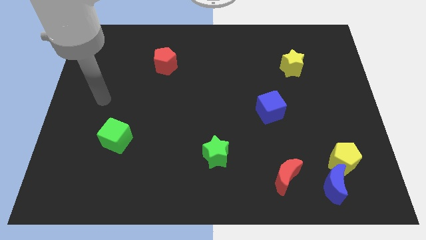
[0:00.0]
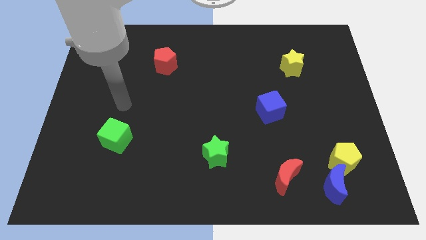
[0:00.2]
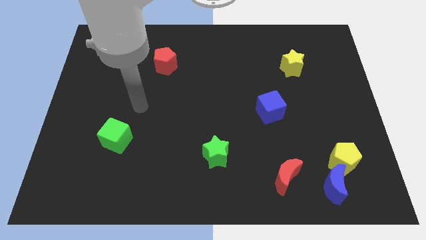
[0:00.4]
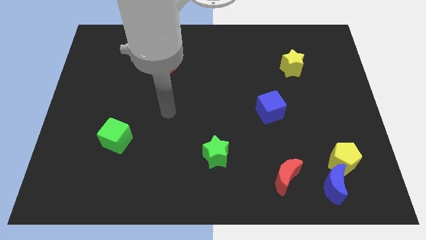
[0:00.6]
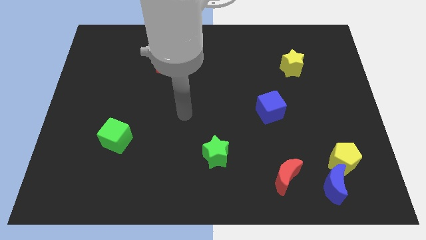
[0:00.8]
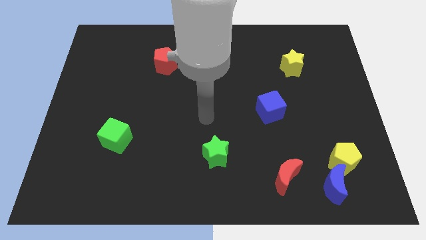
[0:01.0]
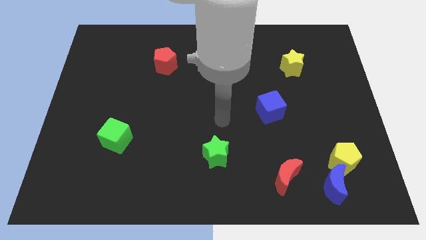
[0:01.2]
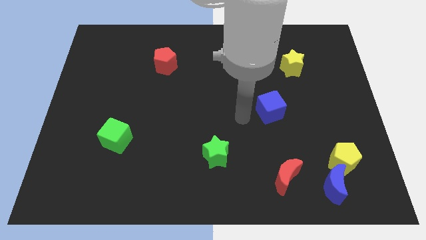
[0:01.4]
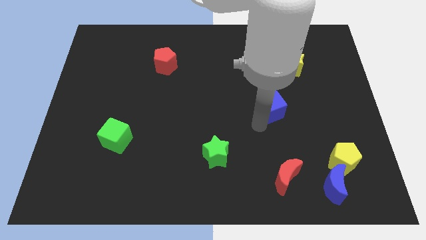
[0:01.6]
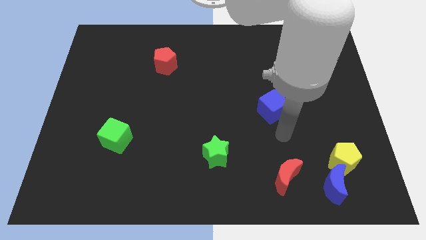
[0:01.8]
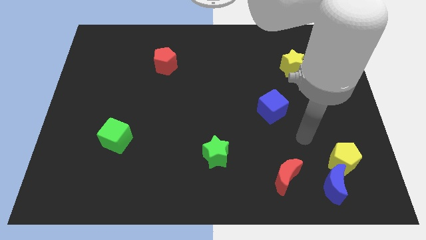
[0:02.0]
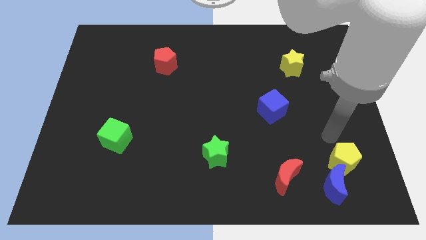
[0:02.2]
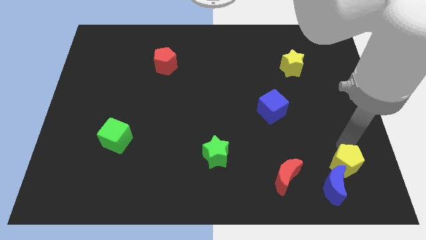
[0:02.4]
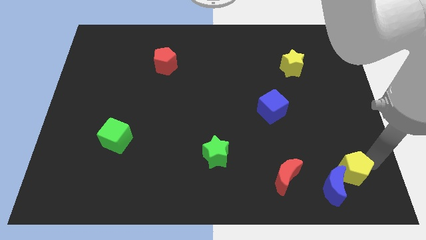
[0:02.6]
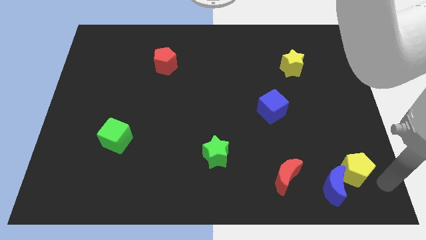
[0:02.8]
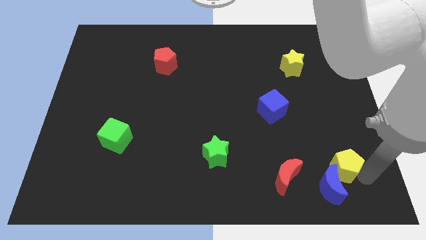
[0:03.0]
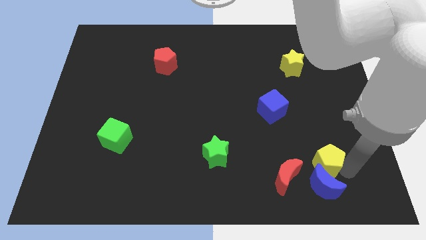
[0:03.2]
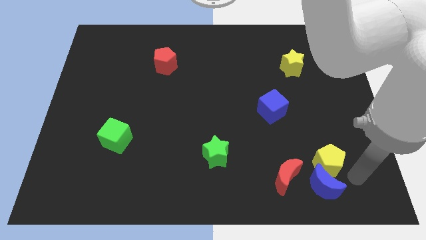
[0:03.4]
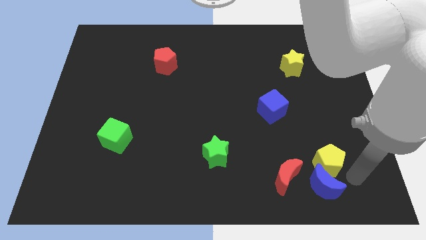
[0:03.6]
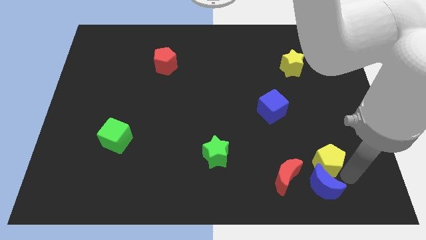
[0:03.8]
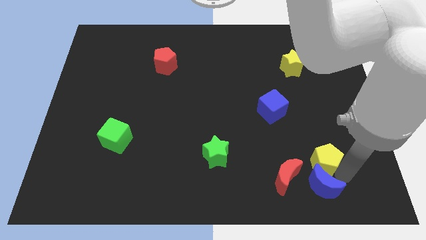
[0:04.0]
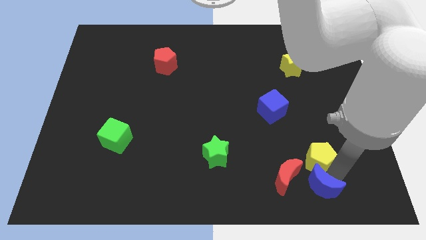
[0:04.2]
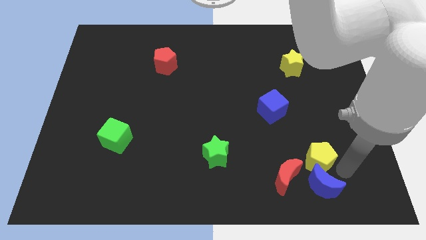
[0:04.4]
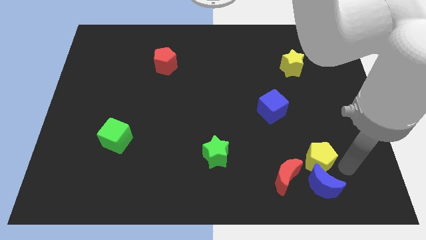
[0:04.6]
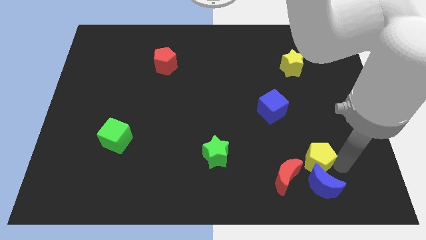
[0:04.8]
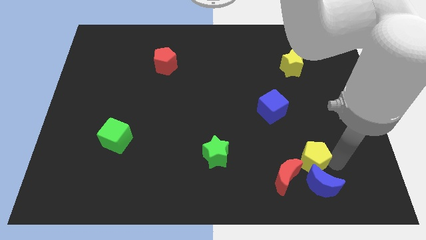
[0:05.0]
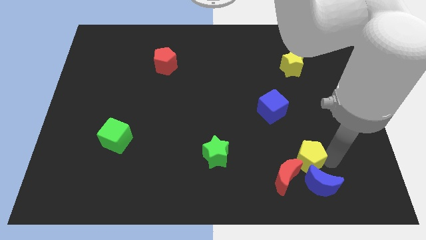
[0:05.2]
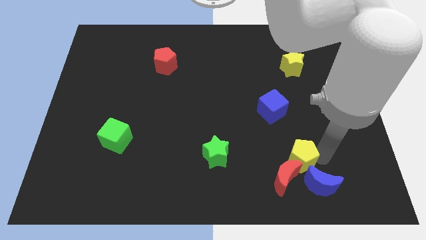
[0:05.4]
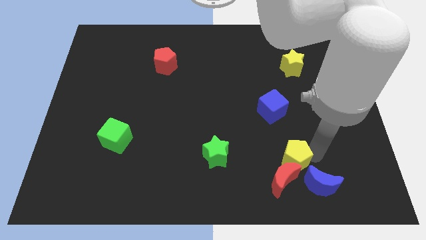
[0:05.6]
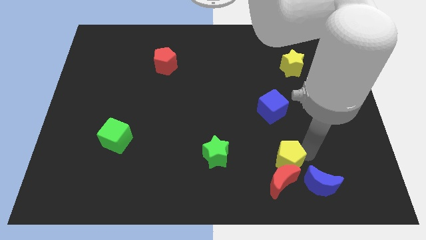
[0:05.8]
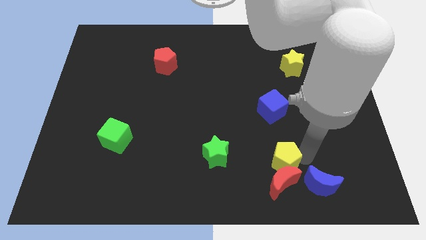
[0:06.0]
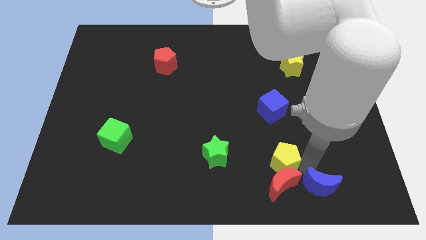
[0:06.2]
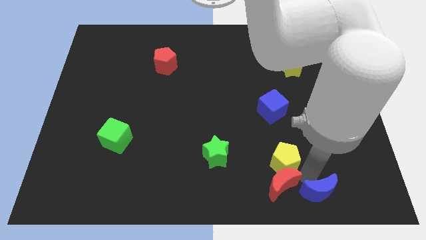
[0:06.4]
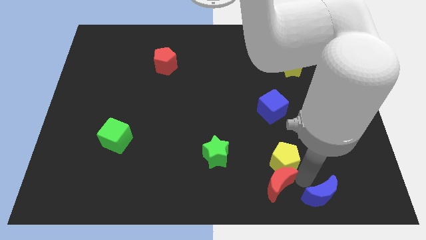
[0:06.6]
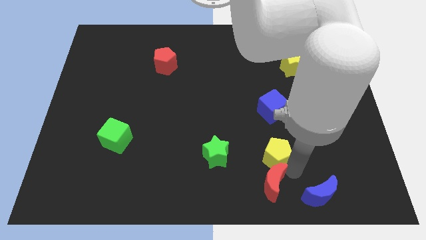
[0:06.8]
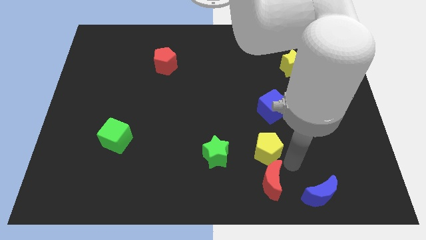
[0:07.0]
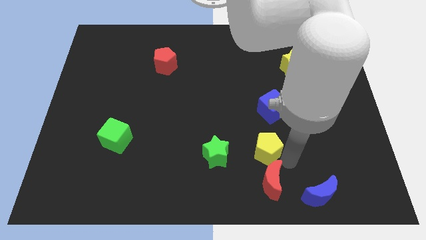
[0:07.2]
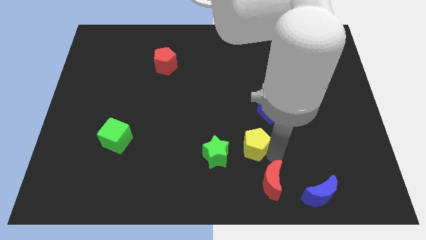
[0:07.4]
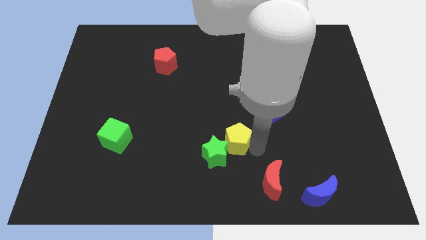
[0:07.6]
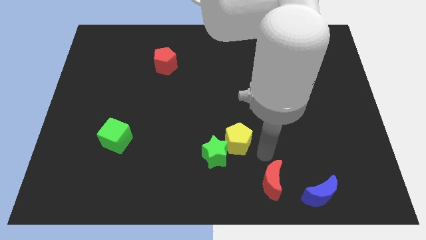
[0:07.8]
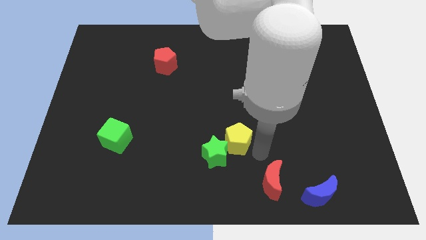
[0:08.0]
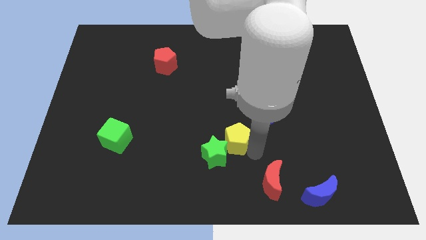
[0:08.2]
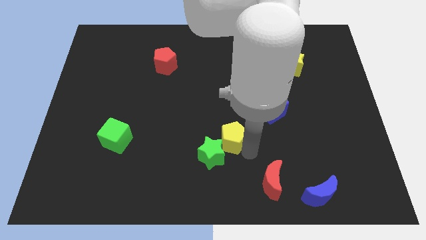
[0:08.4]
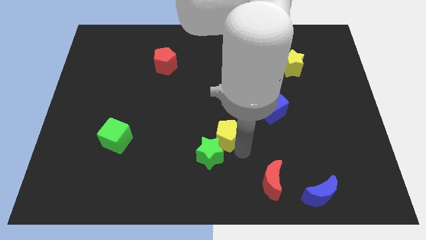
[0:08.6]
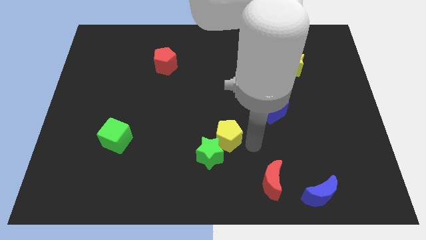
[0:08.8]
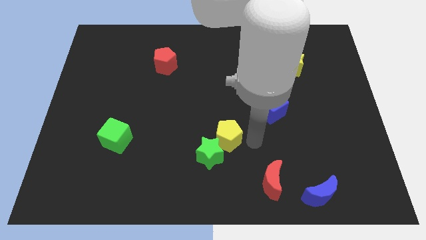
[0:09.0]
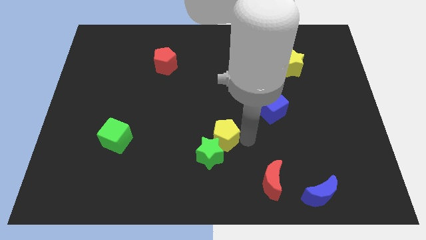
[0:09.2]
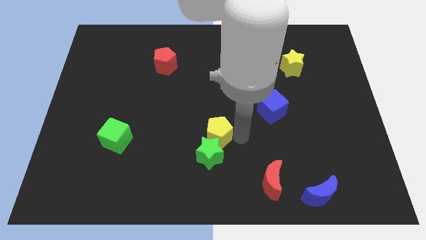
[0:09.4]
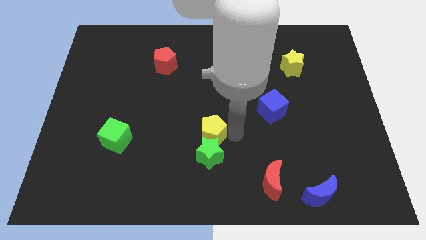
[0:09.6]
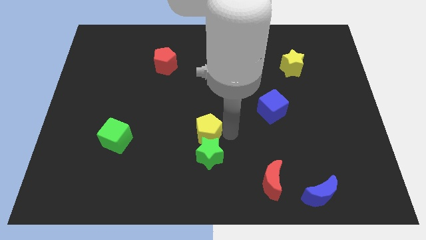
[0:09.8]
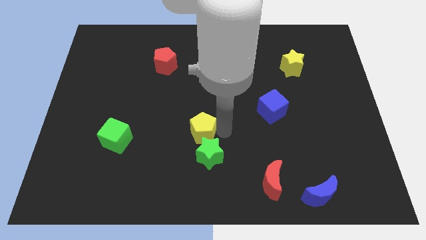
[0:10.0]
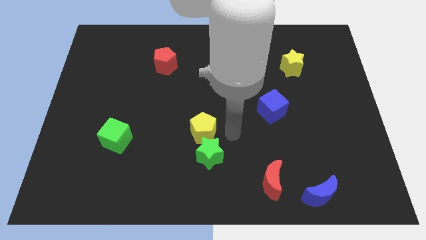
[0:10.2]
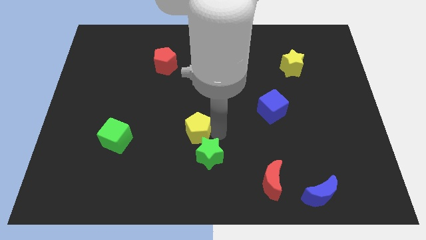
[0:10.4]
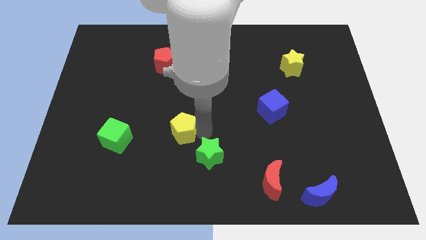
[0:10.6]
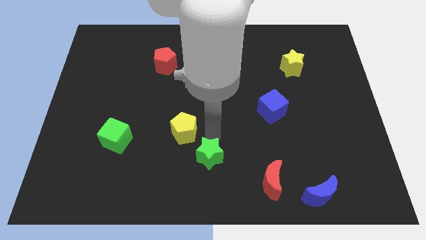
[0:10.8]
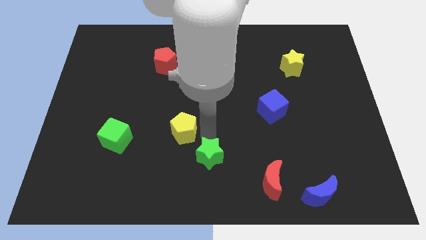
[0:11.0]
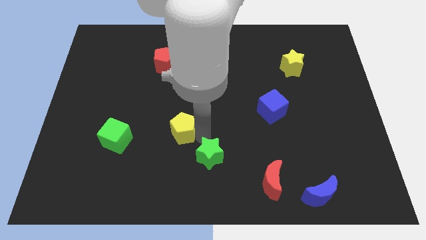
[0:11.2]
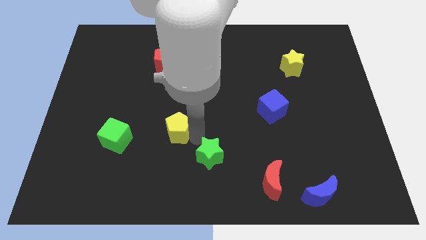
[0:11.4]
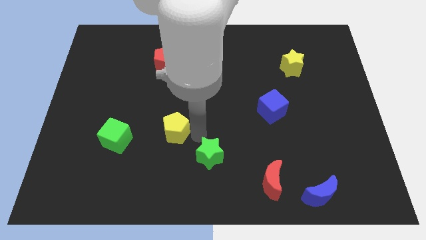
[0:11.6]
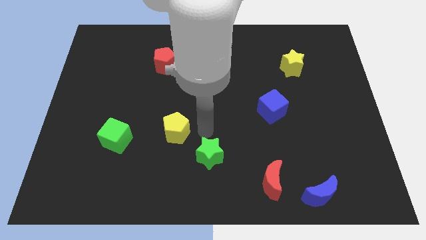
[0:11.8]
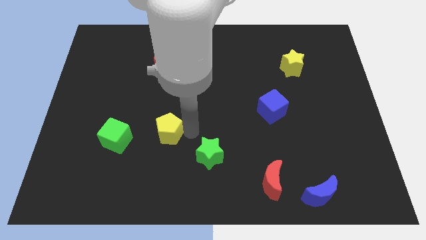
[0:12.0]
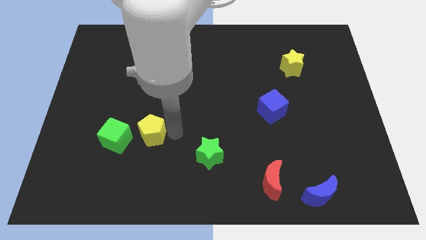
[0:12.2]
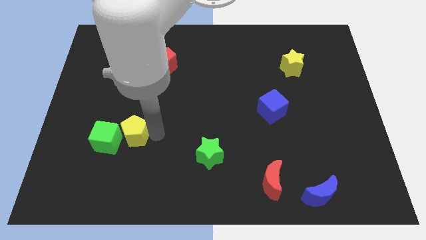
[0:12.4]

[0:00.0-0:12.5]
move the yellow pentagon close to the green cube

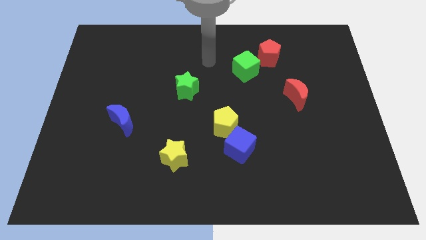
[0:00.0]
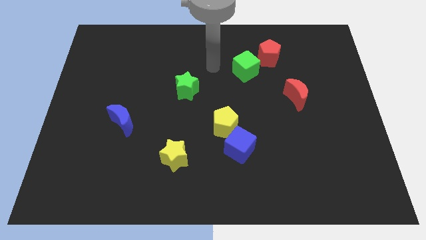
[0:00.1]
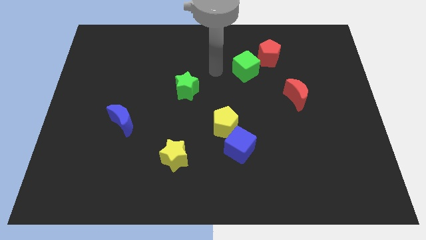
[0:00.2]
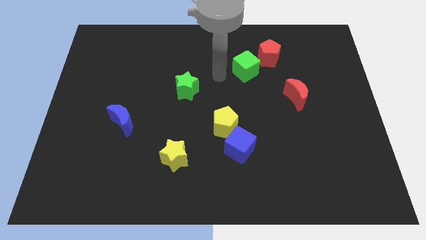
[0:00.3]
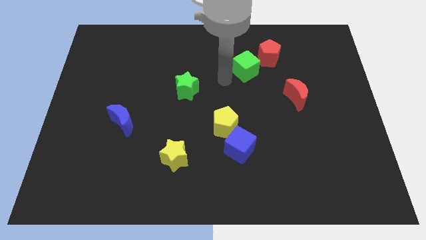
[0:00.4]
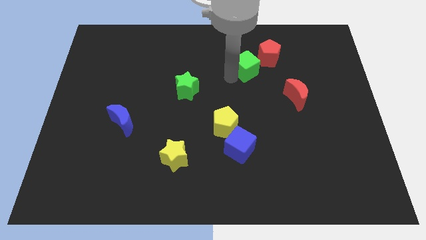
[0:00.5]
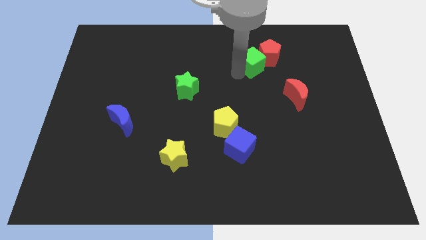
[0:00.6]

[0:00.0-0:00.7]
put the green cube close to the red pentagon
